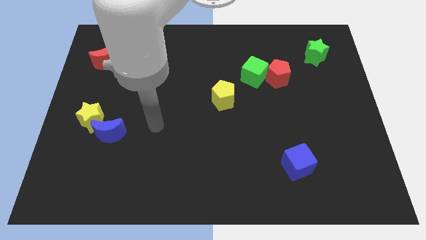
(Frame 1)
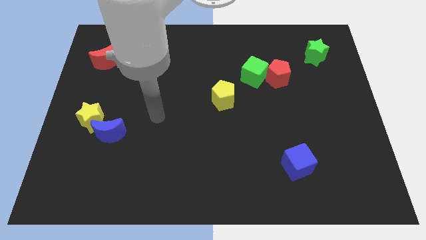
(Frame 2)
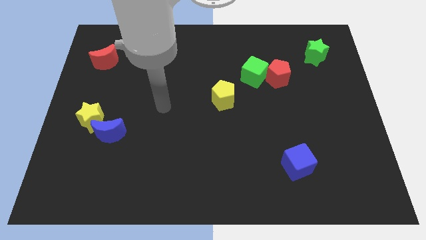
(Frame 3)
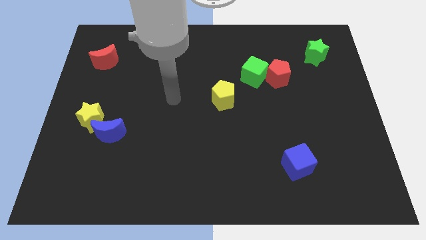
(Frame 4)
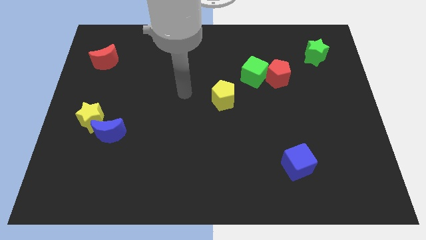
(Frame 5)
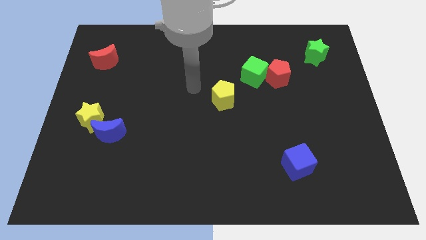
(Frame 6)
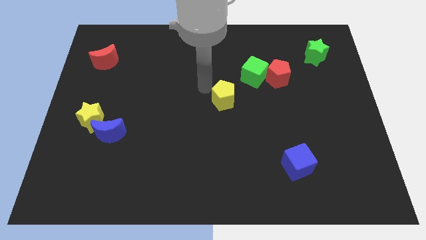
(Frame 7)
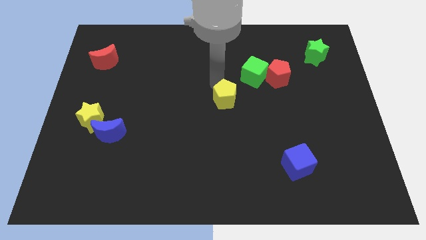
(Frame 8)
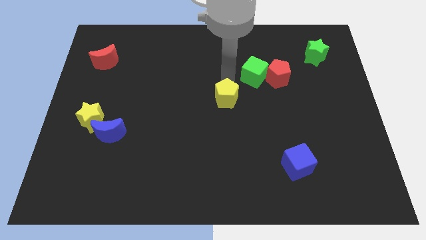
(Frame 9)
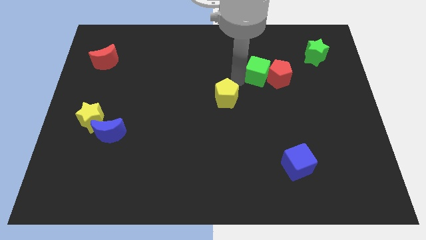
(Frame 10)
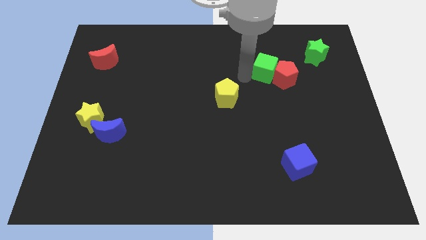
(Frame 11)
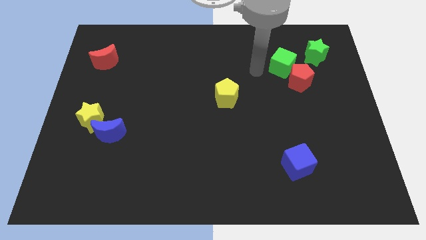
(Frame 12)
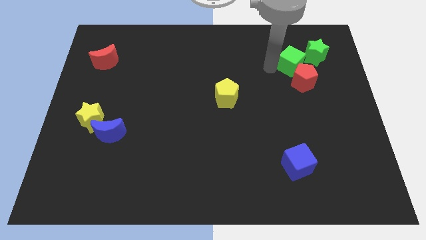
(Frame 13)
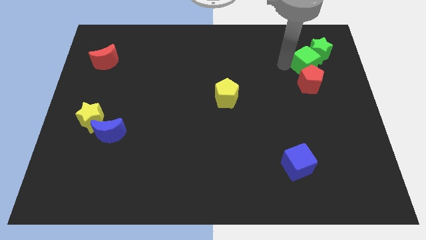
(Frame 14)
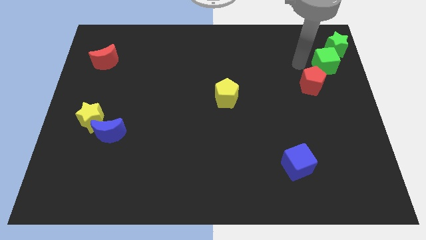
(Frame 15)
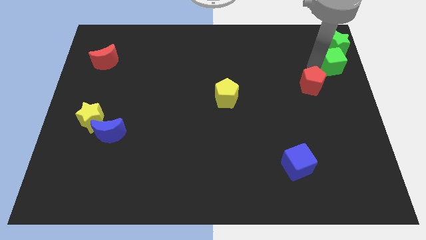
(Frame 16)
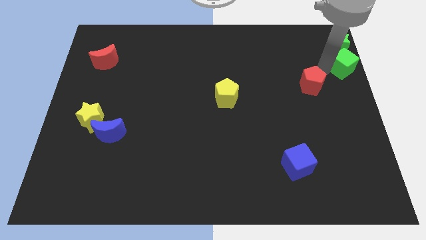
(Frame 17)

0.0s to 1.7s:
separate the red pentagon from the green cube

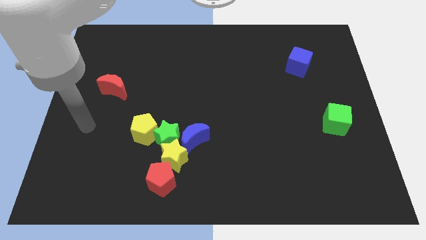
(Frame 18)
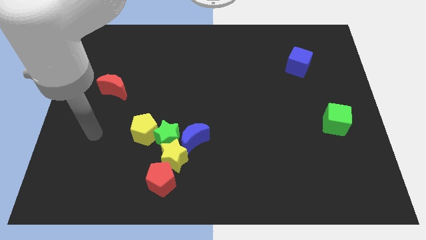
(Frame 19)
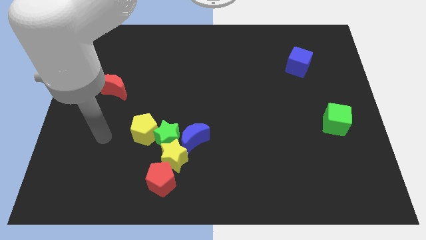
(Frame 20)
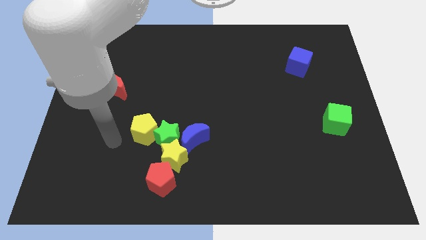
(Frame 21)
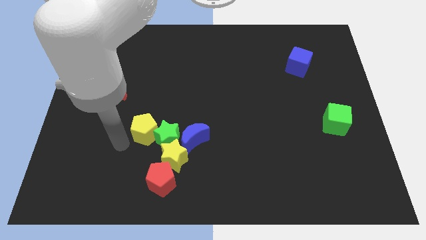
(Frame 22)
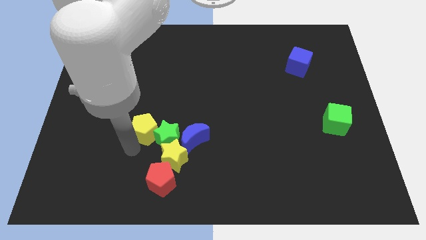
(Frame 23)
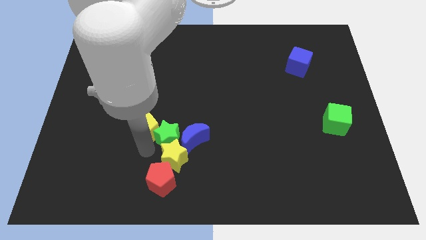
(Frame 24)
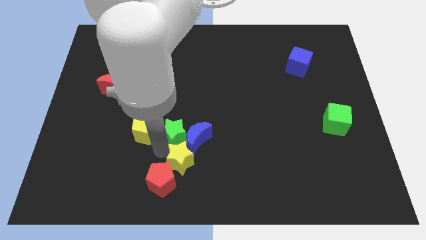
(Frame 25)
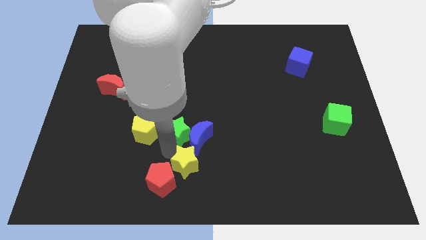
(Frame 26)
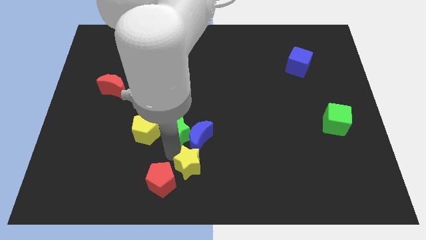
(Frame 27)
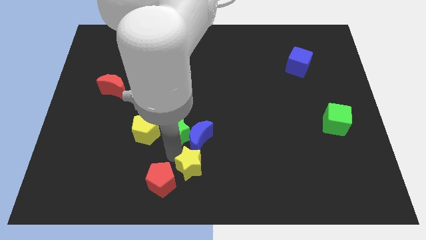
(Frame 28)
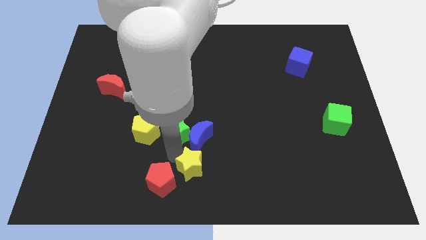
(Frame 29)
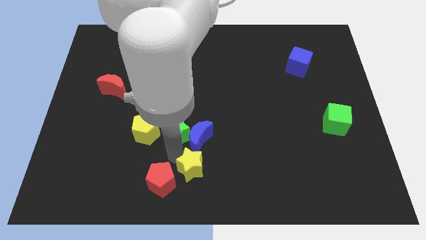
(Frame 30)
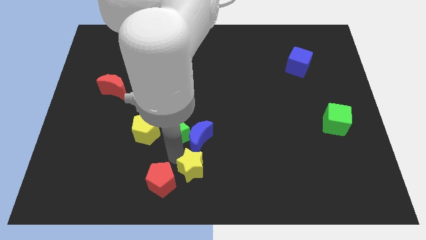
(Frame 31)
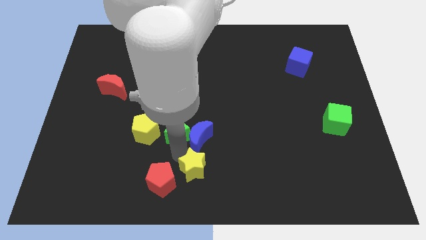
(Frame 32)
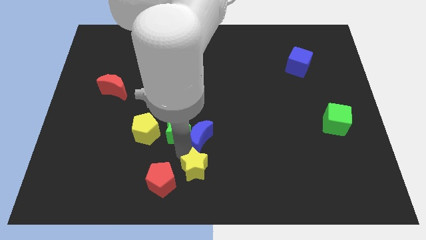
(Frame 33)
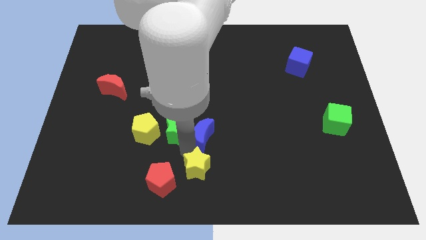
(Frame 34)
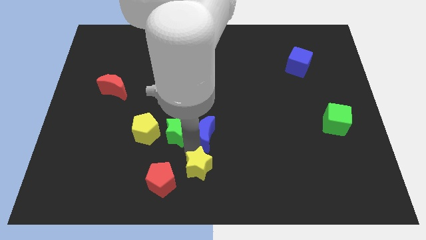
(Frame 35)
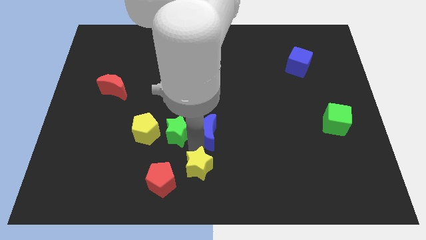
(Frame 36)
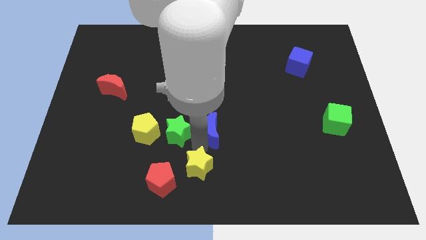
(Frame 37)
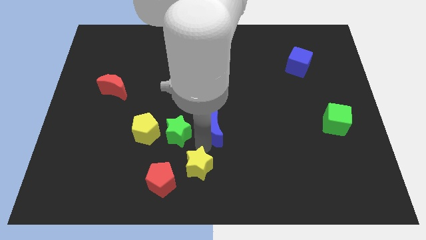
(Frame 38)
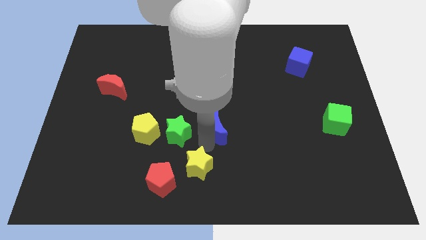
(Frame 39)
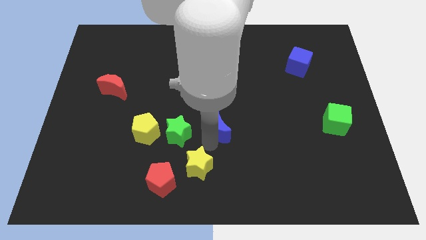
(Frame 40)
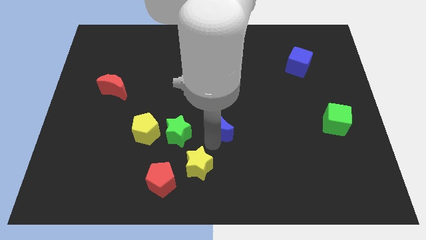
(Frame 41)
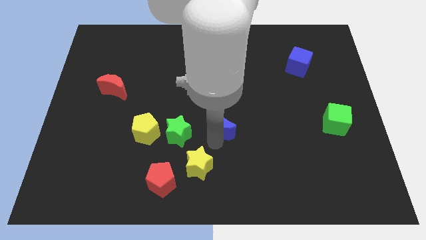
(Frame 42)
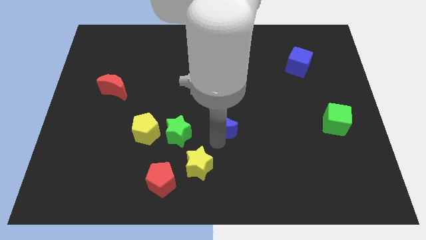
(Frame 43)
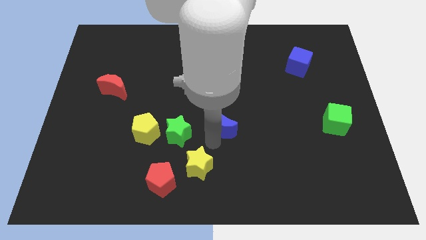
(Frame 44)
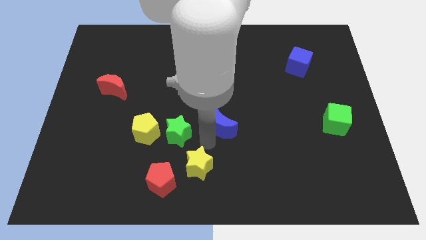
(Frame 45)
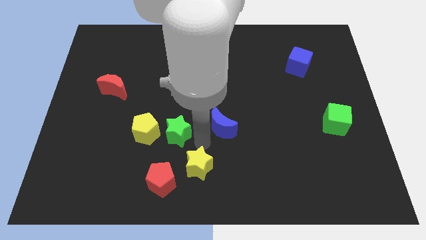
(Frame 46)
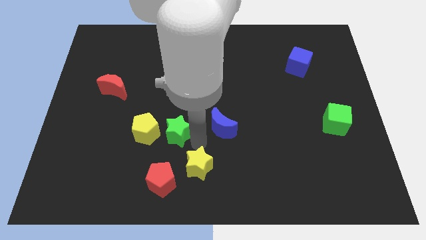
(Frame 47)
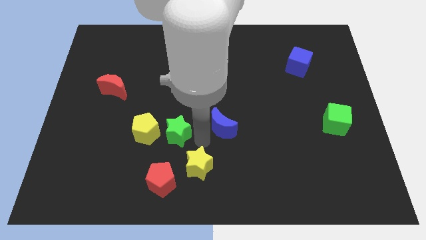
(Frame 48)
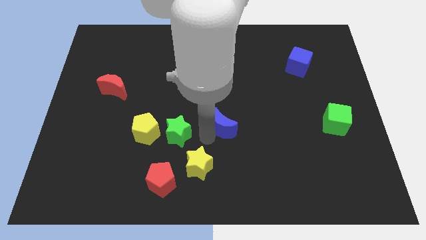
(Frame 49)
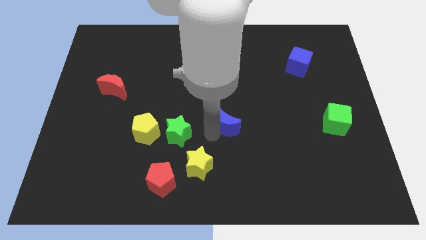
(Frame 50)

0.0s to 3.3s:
move the blue moon away from the green star and yellow star

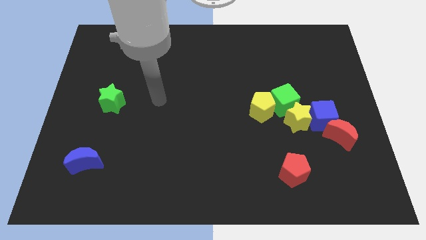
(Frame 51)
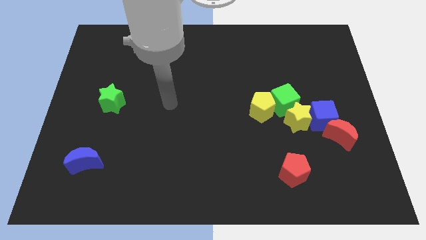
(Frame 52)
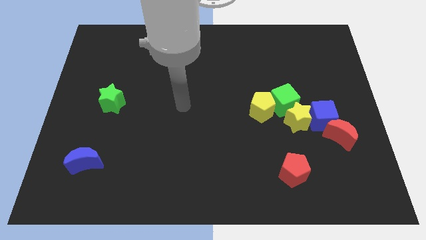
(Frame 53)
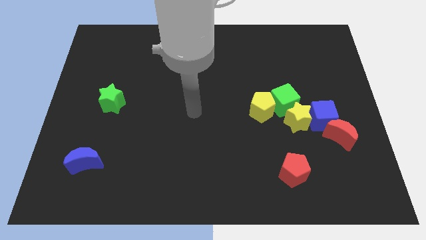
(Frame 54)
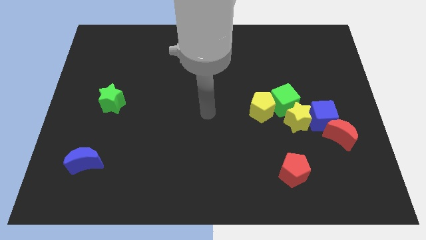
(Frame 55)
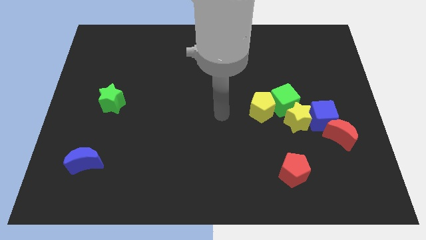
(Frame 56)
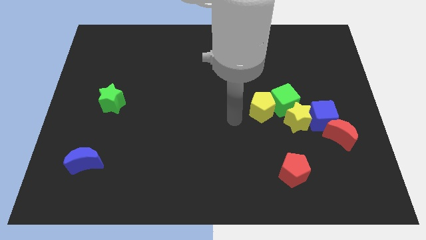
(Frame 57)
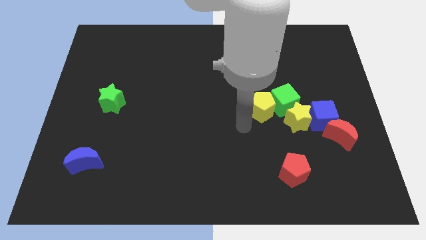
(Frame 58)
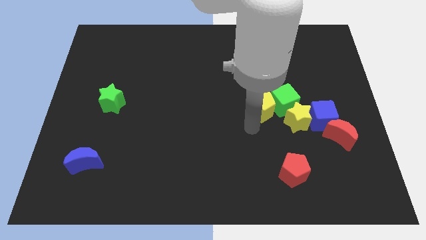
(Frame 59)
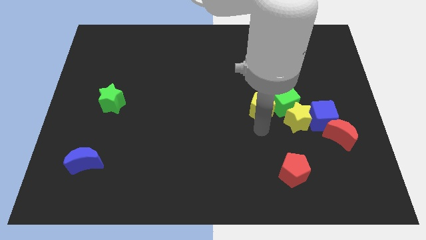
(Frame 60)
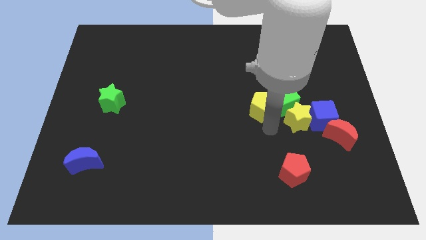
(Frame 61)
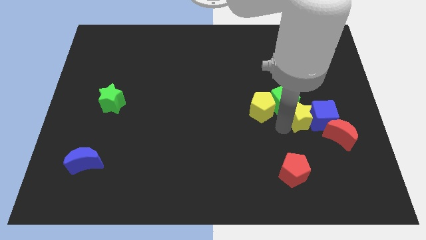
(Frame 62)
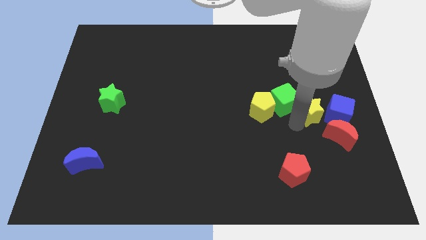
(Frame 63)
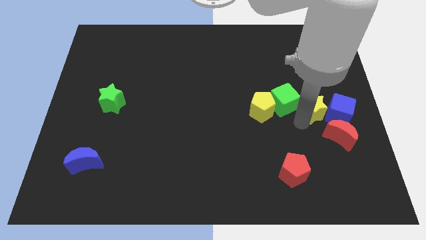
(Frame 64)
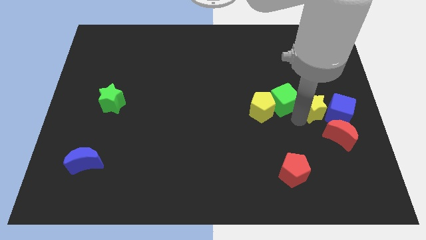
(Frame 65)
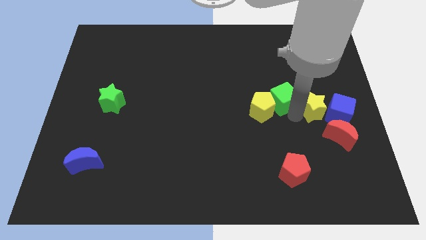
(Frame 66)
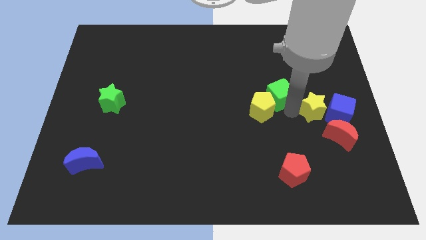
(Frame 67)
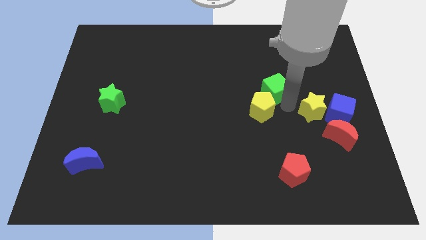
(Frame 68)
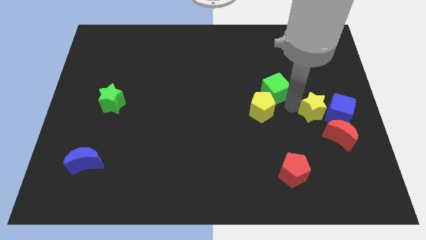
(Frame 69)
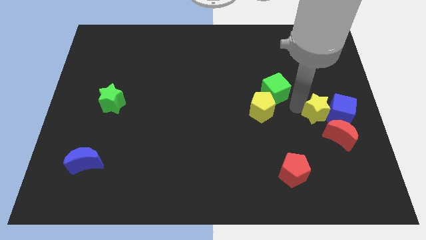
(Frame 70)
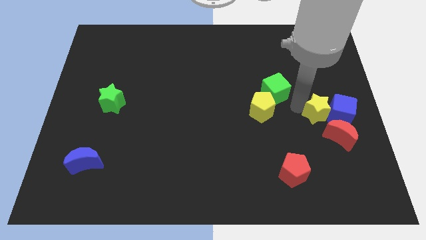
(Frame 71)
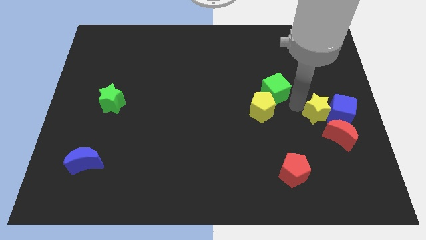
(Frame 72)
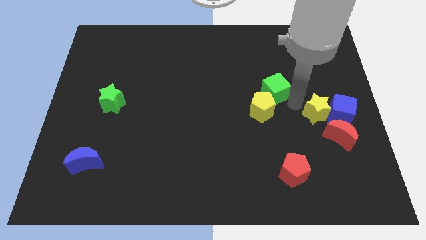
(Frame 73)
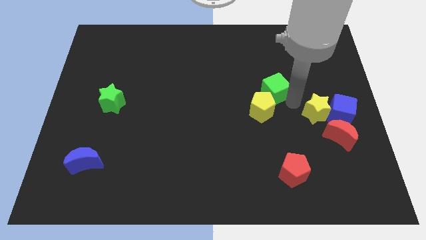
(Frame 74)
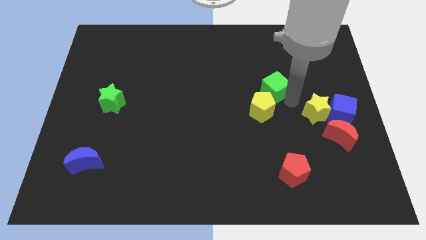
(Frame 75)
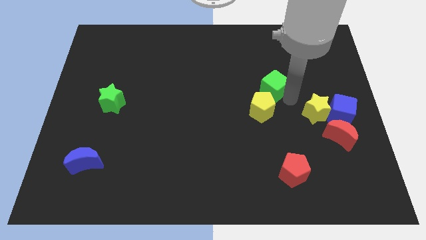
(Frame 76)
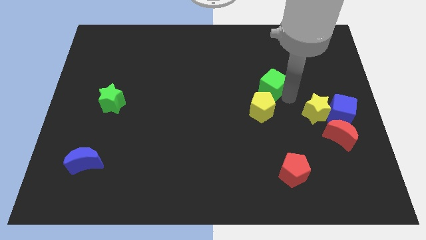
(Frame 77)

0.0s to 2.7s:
pull the green cube apart from the yellow star, yellow pentagon, and blue cube

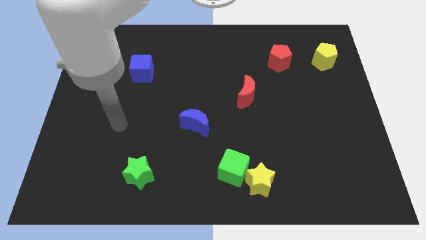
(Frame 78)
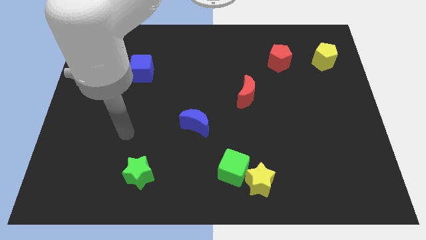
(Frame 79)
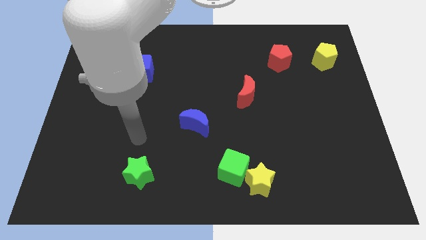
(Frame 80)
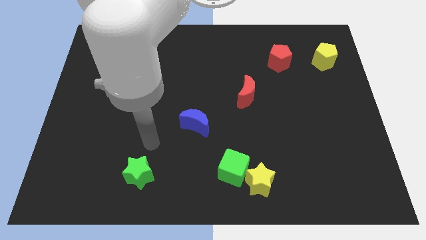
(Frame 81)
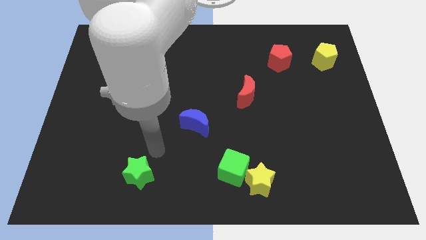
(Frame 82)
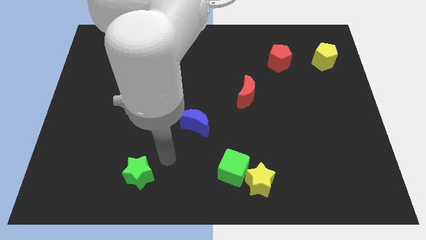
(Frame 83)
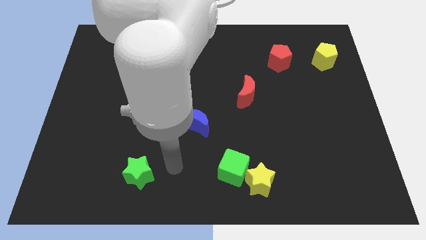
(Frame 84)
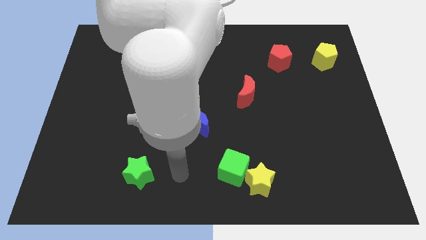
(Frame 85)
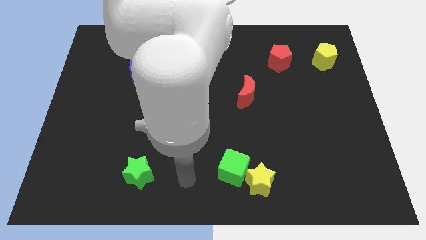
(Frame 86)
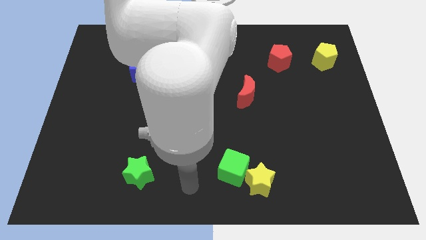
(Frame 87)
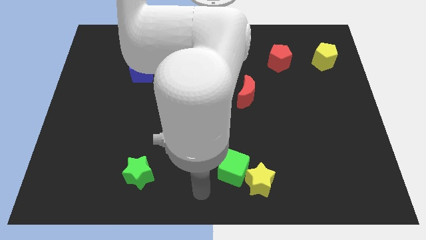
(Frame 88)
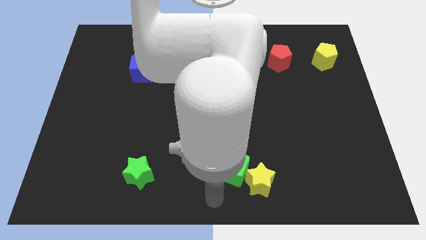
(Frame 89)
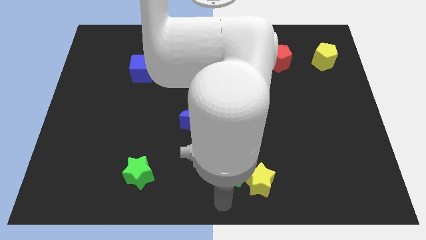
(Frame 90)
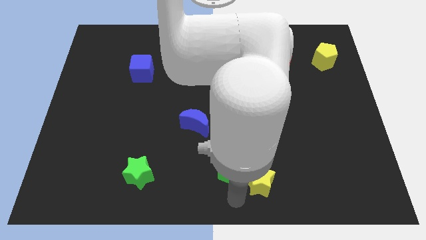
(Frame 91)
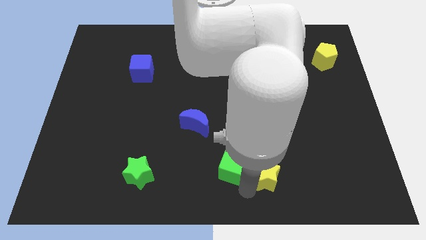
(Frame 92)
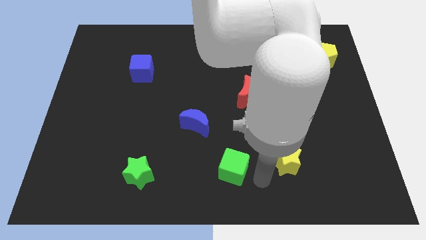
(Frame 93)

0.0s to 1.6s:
move the green cube away from the yellow star
